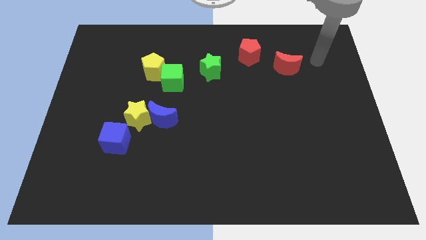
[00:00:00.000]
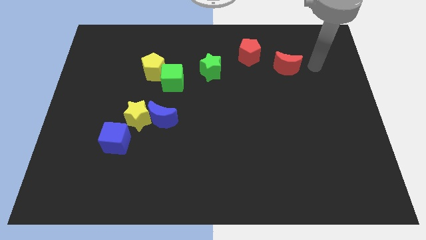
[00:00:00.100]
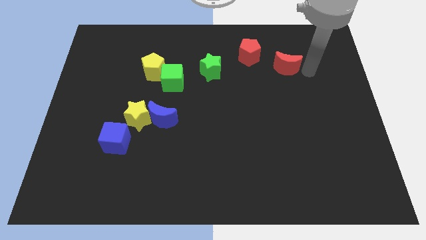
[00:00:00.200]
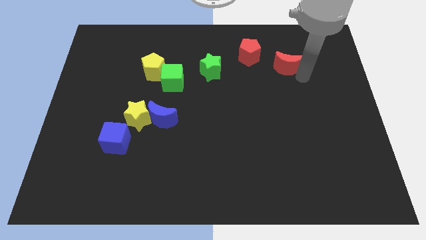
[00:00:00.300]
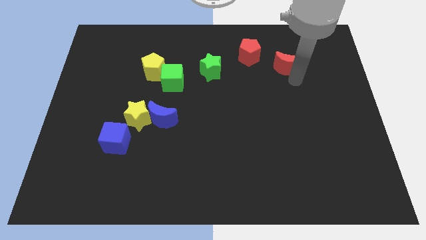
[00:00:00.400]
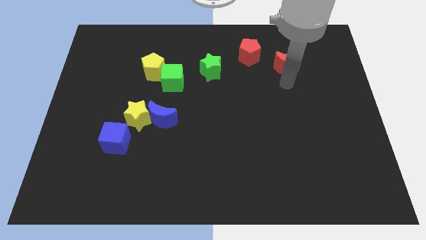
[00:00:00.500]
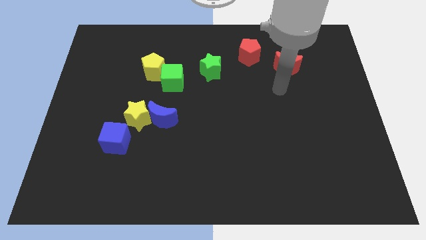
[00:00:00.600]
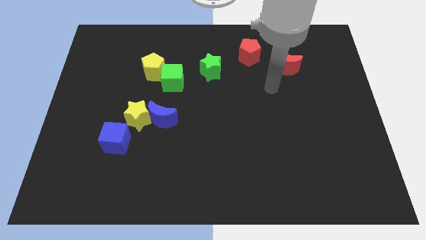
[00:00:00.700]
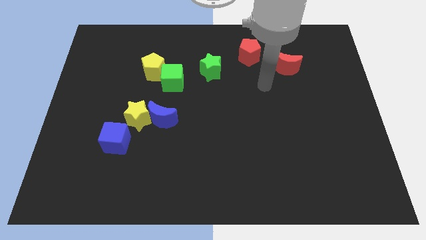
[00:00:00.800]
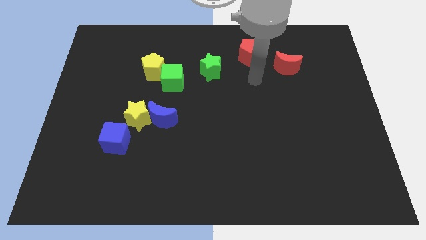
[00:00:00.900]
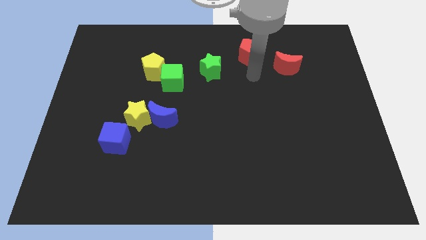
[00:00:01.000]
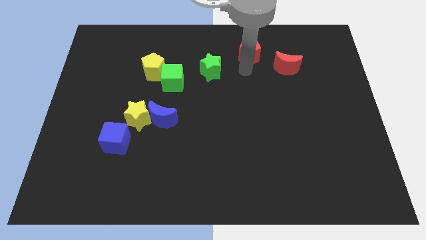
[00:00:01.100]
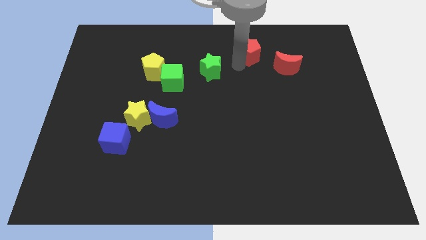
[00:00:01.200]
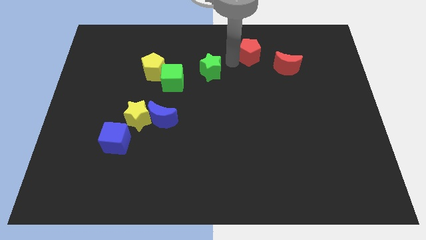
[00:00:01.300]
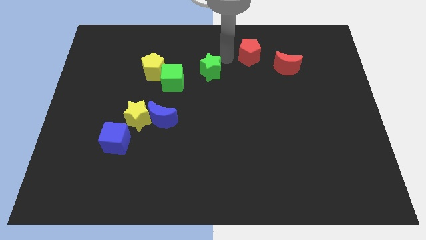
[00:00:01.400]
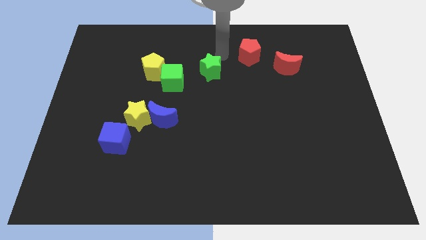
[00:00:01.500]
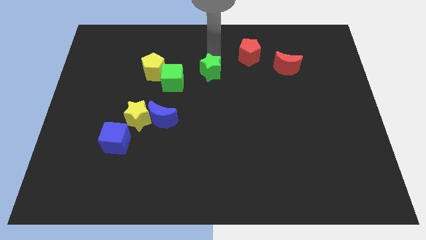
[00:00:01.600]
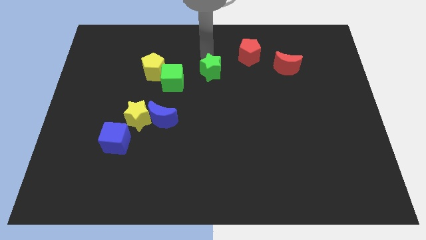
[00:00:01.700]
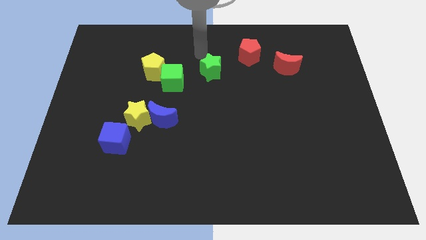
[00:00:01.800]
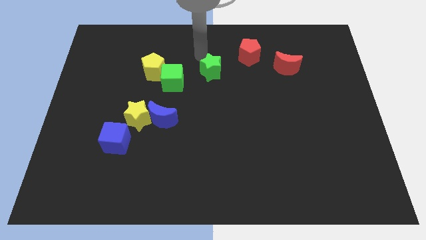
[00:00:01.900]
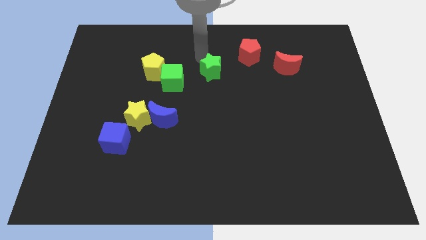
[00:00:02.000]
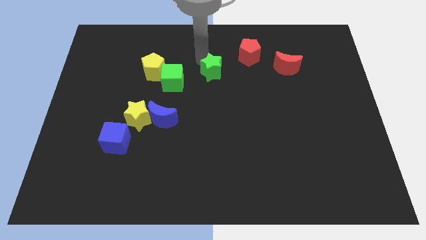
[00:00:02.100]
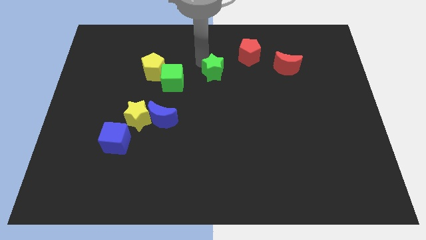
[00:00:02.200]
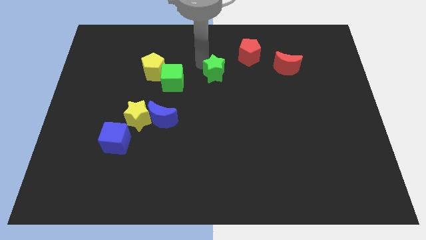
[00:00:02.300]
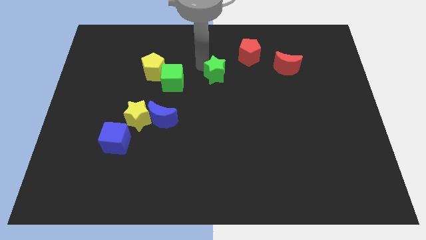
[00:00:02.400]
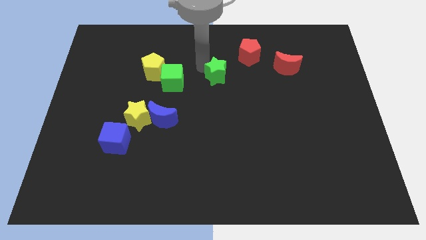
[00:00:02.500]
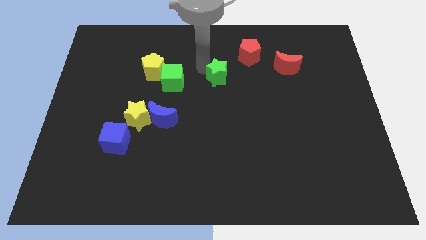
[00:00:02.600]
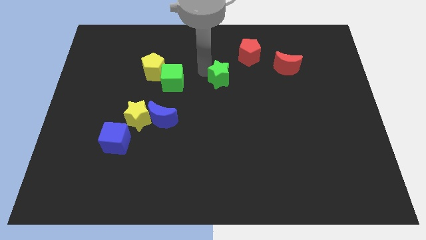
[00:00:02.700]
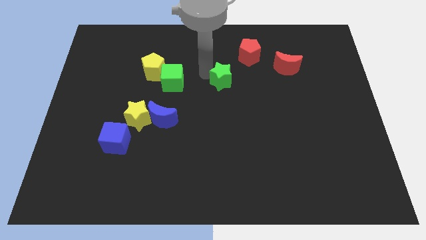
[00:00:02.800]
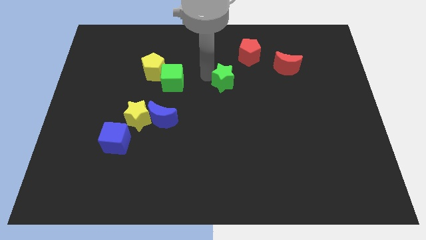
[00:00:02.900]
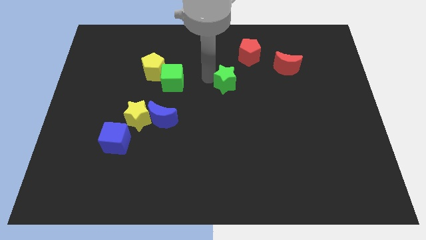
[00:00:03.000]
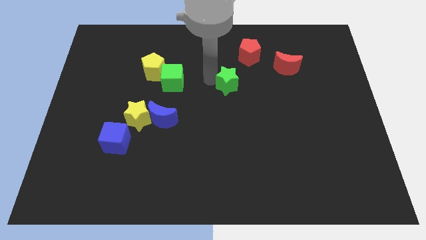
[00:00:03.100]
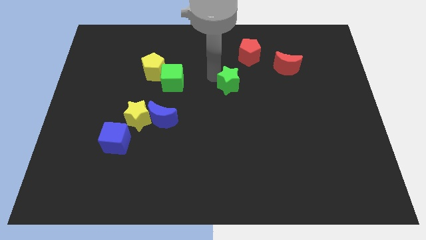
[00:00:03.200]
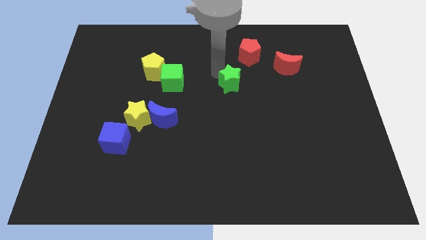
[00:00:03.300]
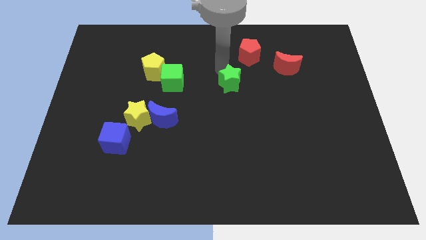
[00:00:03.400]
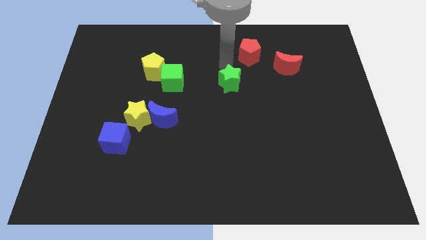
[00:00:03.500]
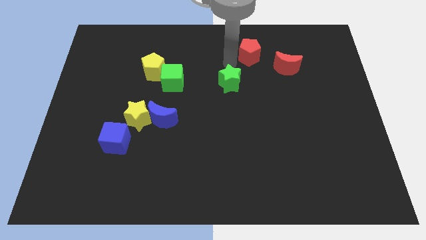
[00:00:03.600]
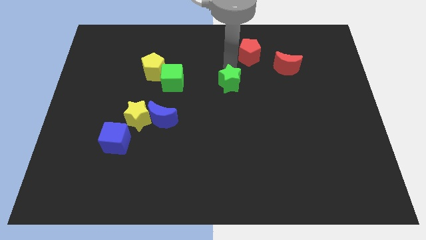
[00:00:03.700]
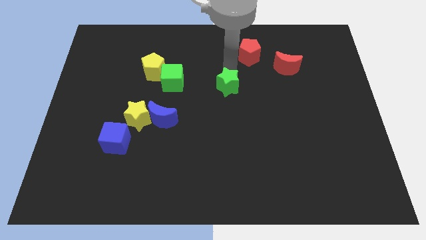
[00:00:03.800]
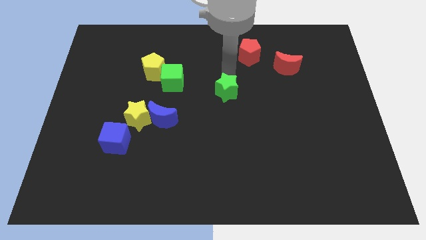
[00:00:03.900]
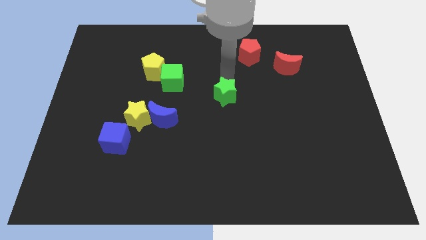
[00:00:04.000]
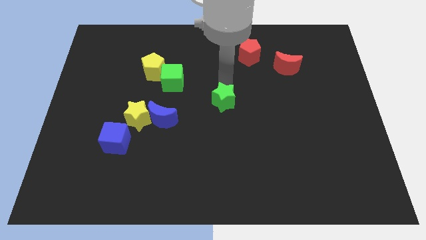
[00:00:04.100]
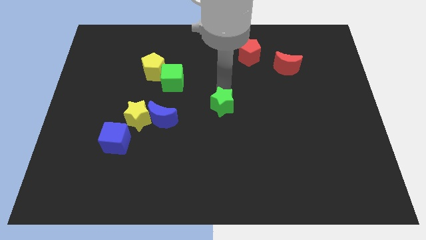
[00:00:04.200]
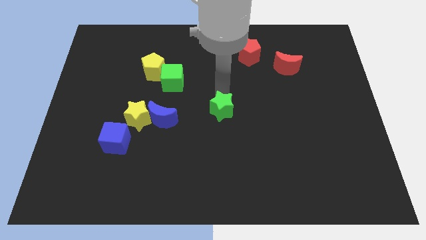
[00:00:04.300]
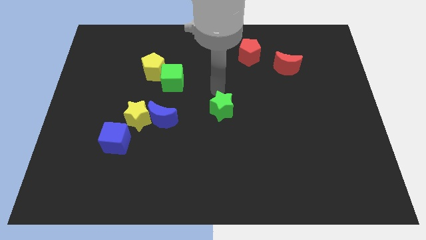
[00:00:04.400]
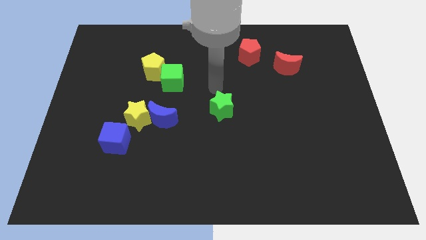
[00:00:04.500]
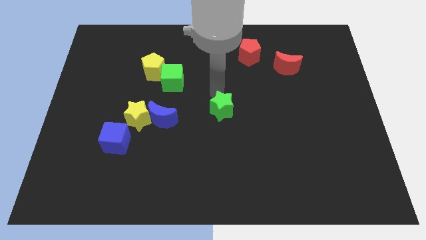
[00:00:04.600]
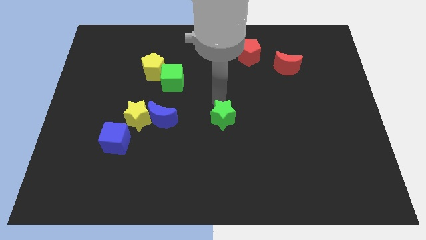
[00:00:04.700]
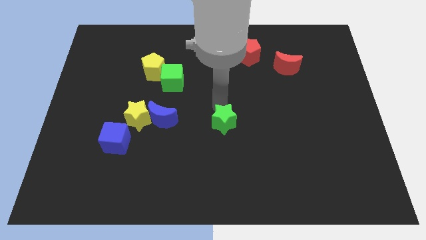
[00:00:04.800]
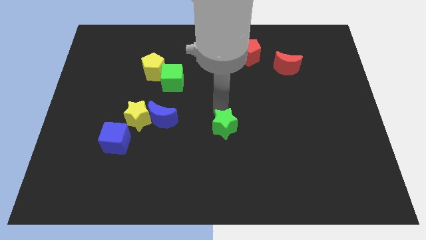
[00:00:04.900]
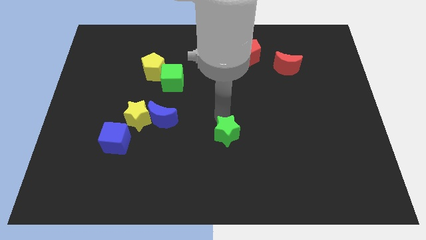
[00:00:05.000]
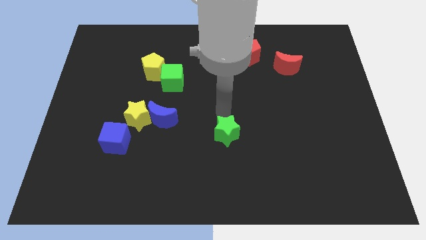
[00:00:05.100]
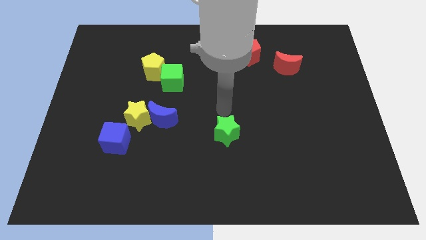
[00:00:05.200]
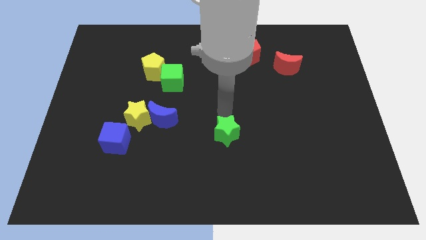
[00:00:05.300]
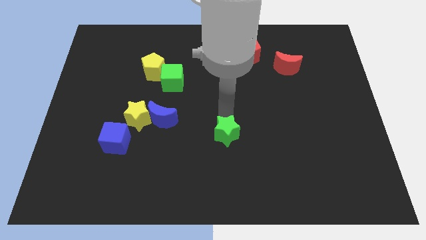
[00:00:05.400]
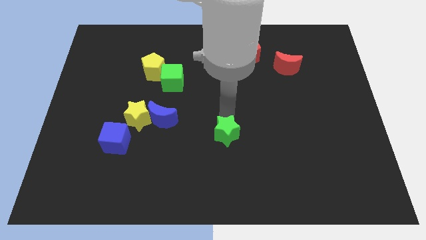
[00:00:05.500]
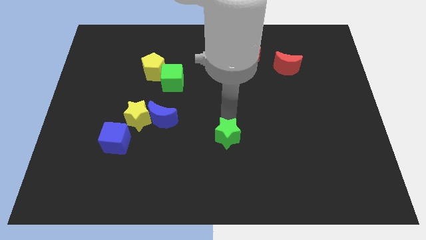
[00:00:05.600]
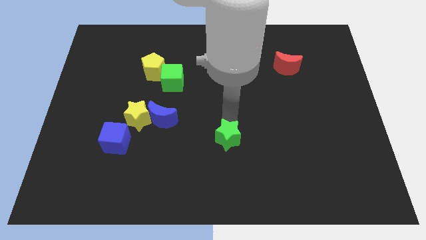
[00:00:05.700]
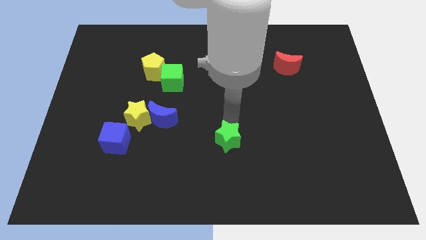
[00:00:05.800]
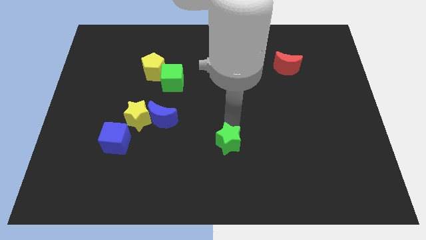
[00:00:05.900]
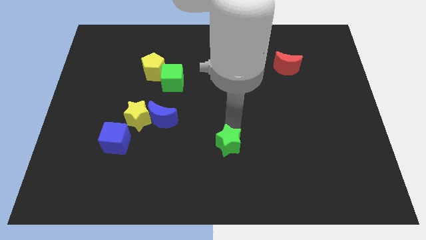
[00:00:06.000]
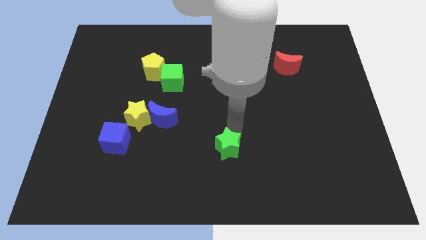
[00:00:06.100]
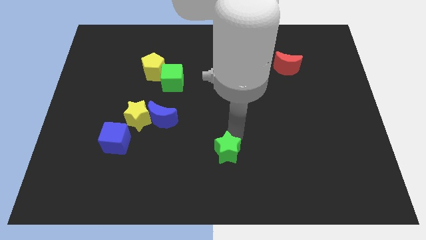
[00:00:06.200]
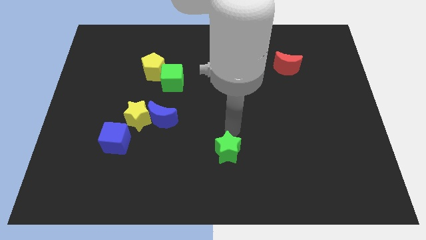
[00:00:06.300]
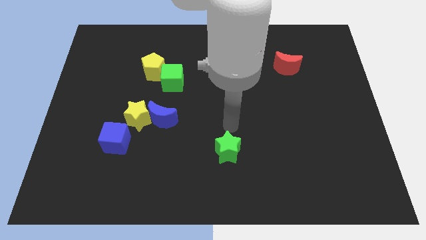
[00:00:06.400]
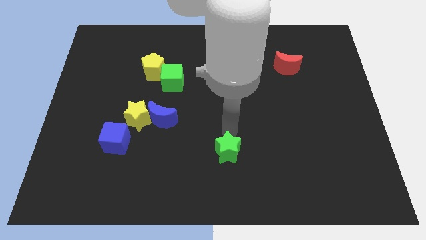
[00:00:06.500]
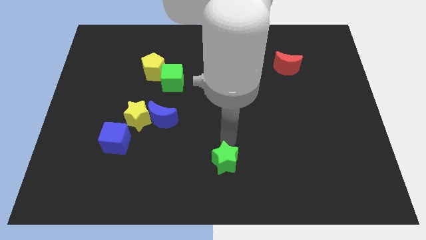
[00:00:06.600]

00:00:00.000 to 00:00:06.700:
move the green star to the bottom

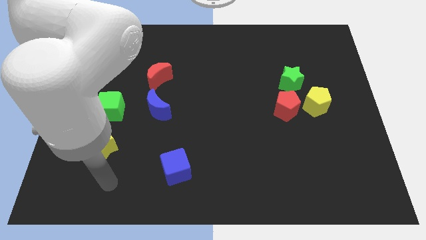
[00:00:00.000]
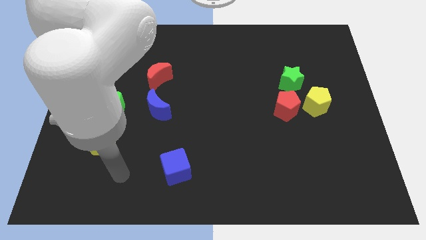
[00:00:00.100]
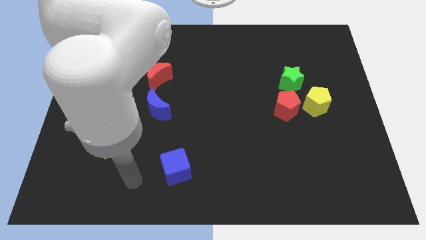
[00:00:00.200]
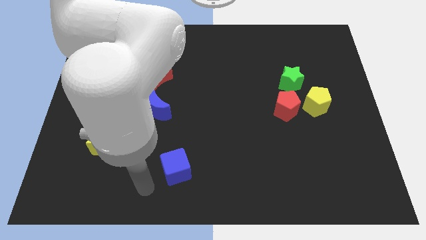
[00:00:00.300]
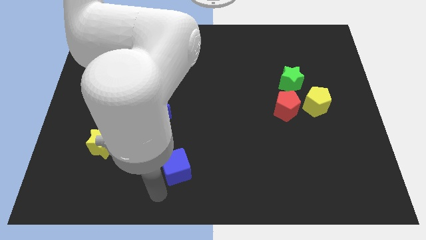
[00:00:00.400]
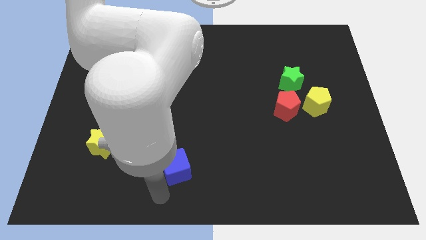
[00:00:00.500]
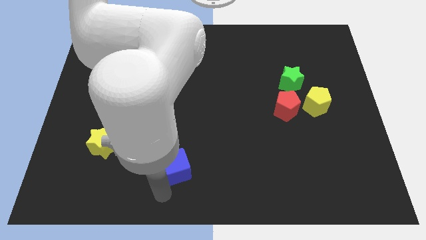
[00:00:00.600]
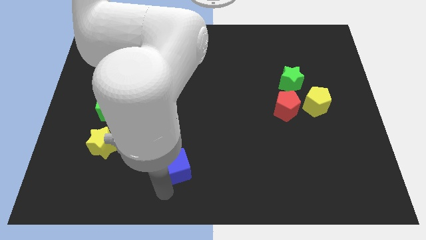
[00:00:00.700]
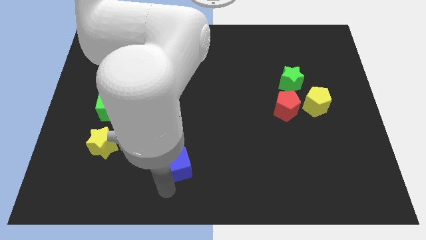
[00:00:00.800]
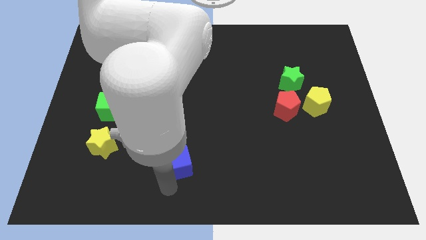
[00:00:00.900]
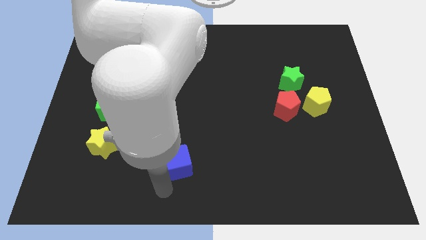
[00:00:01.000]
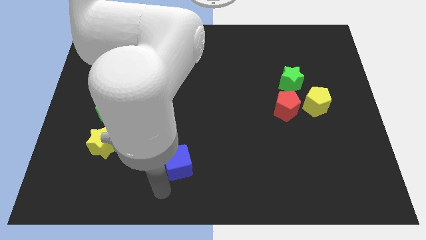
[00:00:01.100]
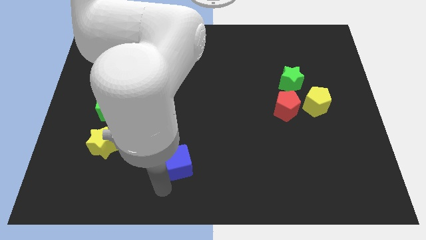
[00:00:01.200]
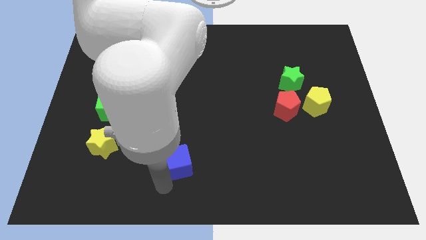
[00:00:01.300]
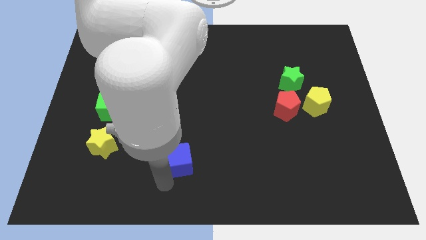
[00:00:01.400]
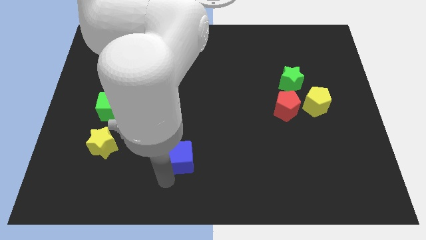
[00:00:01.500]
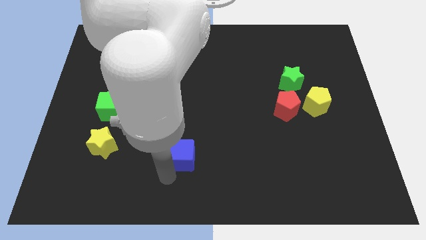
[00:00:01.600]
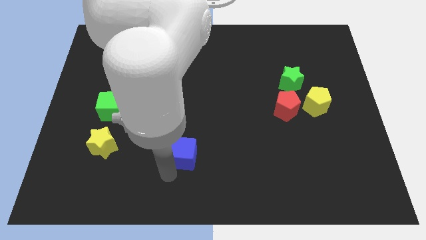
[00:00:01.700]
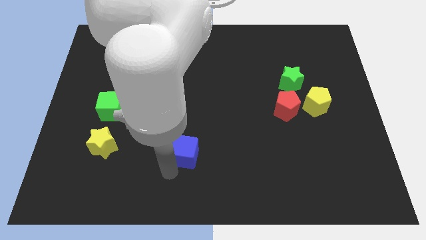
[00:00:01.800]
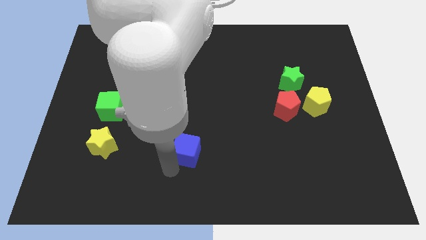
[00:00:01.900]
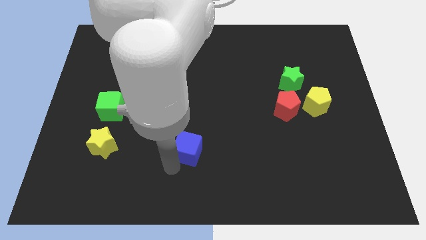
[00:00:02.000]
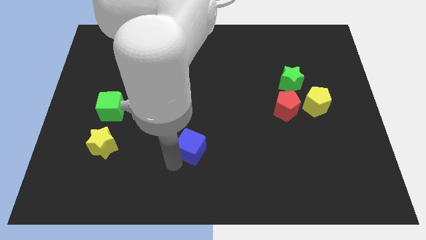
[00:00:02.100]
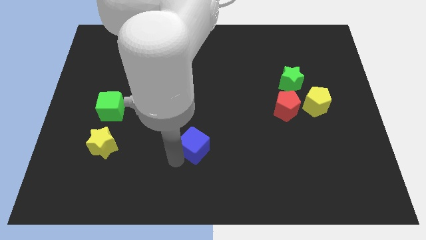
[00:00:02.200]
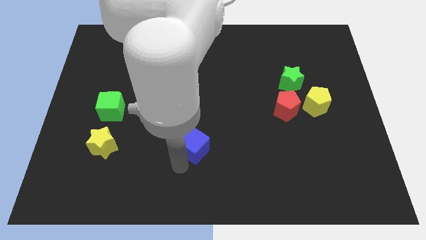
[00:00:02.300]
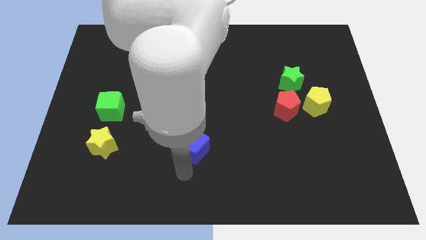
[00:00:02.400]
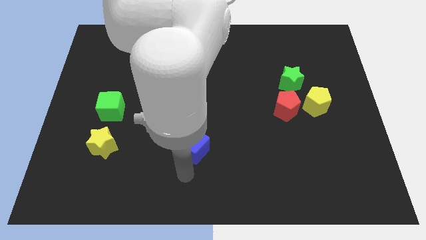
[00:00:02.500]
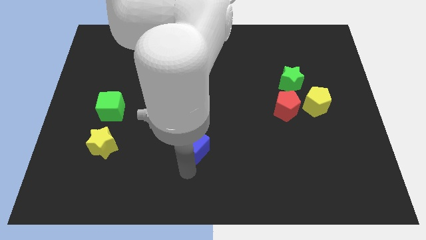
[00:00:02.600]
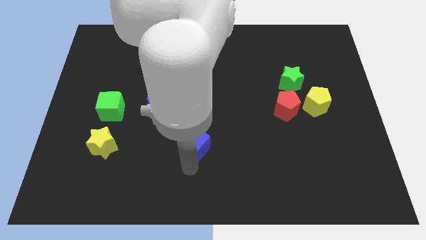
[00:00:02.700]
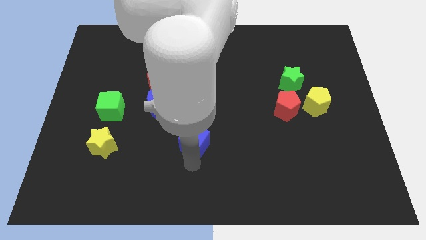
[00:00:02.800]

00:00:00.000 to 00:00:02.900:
slide the blue cube to the center
